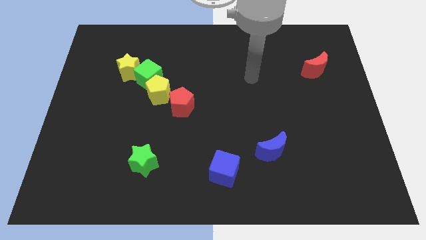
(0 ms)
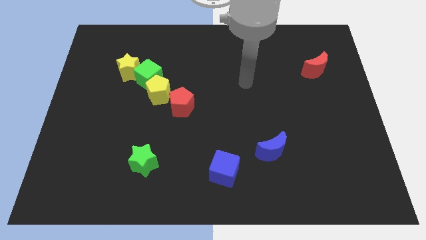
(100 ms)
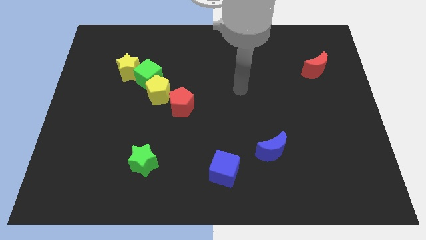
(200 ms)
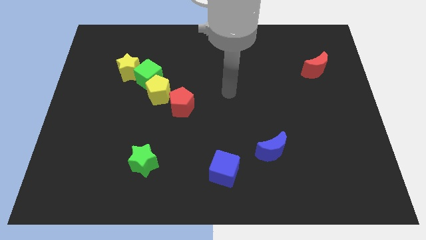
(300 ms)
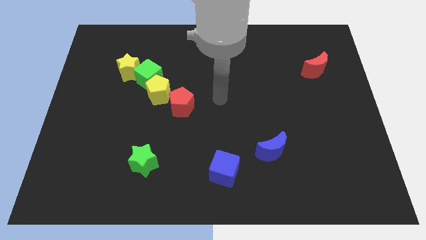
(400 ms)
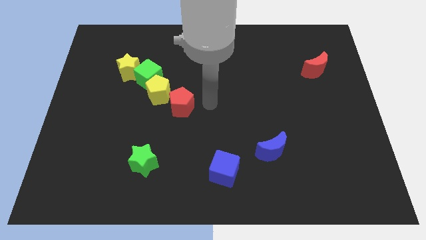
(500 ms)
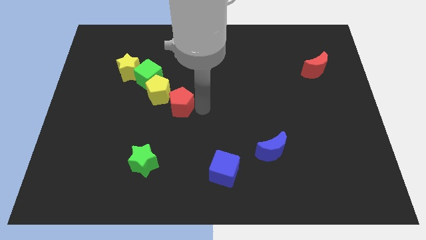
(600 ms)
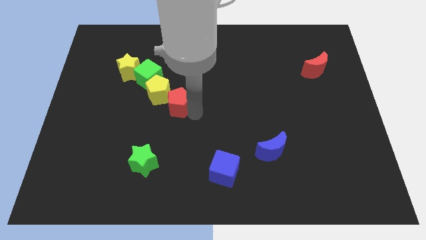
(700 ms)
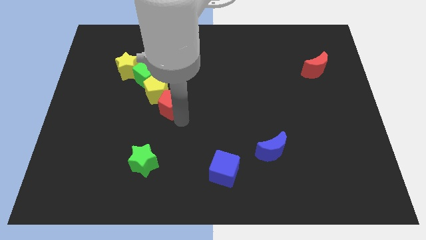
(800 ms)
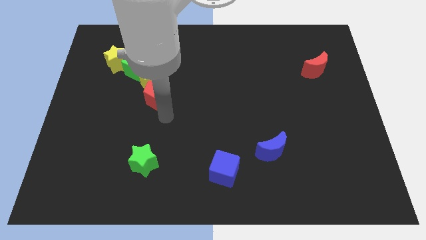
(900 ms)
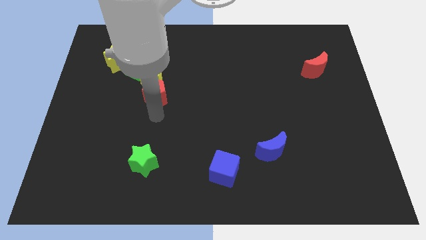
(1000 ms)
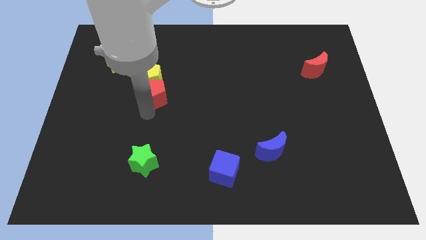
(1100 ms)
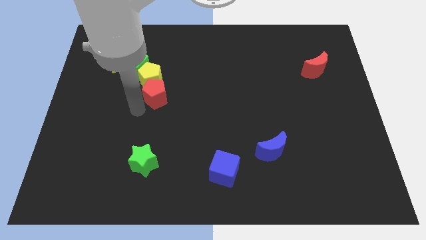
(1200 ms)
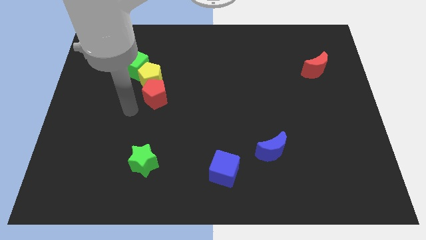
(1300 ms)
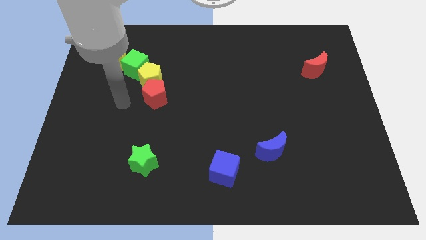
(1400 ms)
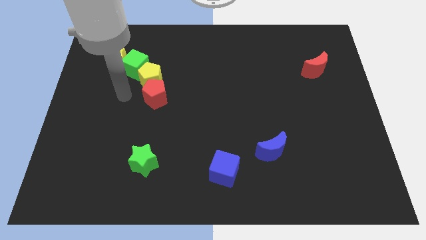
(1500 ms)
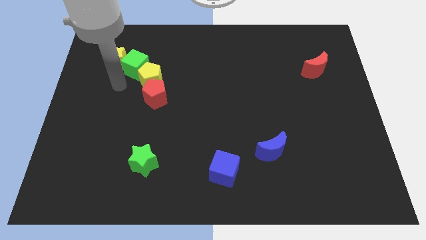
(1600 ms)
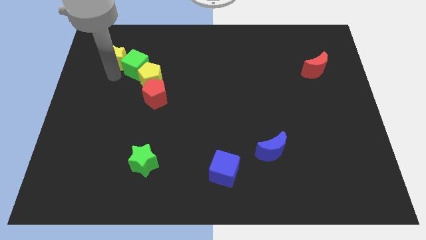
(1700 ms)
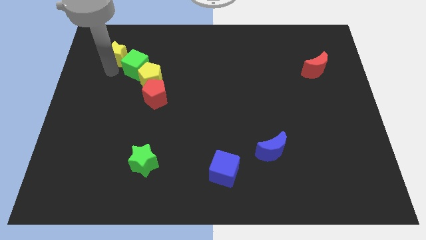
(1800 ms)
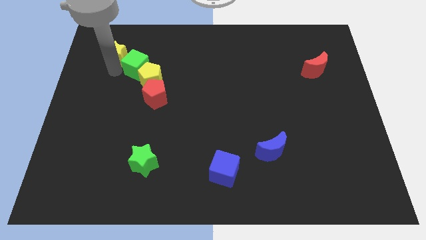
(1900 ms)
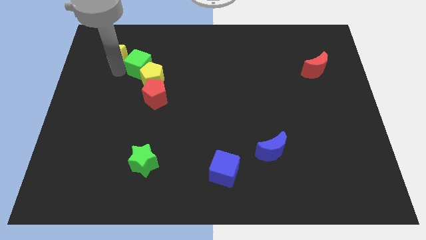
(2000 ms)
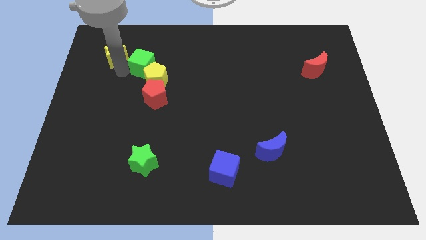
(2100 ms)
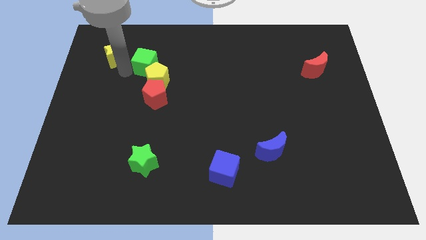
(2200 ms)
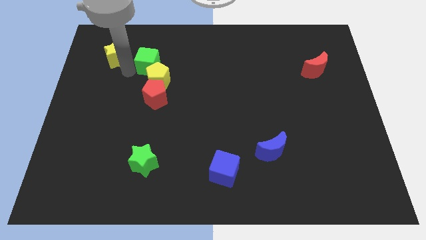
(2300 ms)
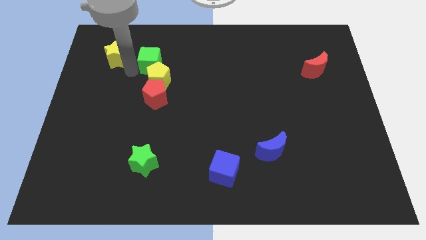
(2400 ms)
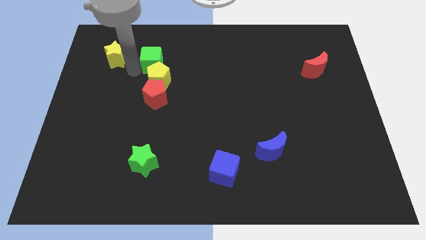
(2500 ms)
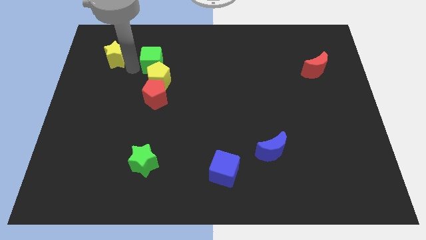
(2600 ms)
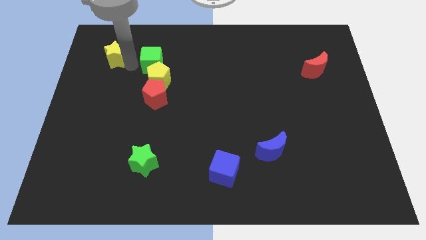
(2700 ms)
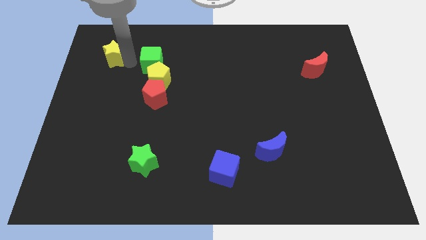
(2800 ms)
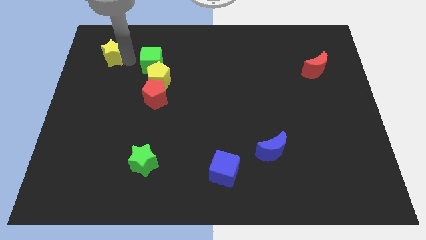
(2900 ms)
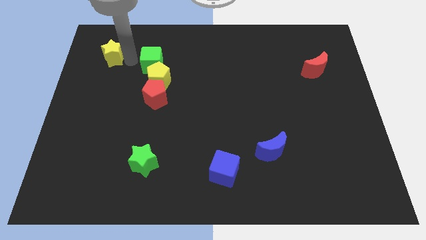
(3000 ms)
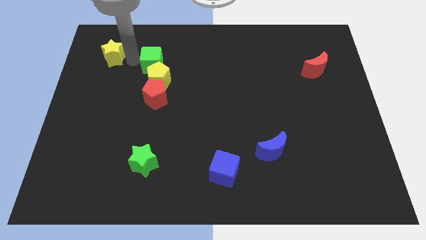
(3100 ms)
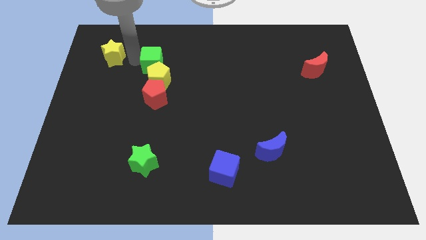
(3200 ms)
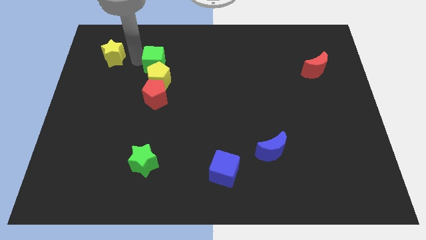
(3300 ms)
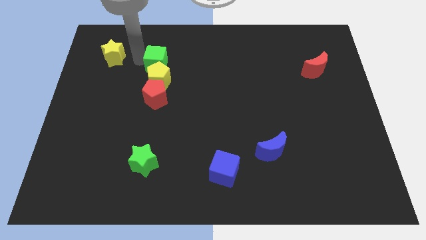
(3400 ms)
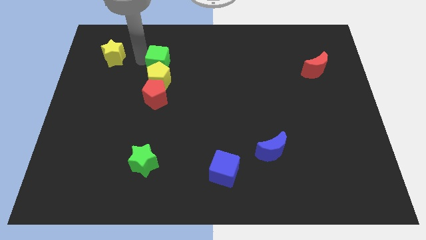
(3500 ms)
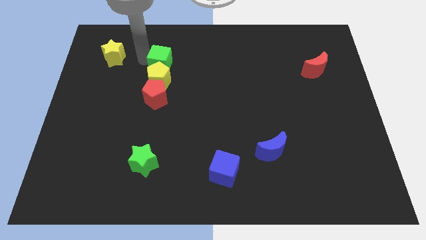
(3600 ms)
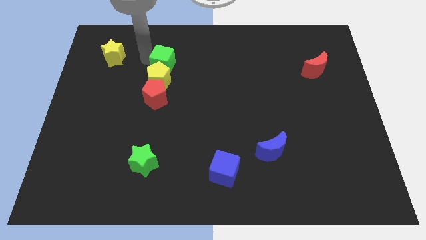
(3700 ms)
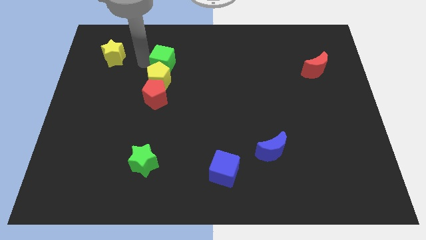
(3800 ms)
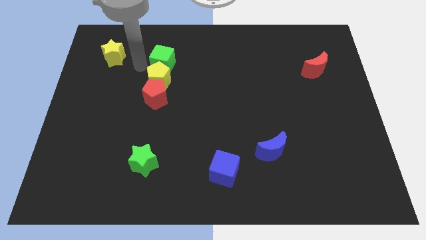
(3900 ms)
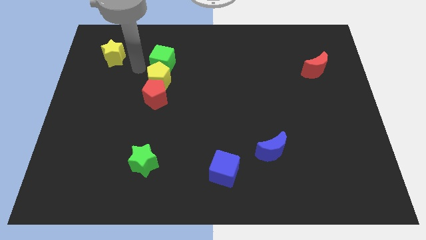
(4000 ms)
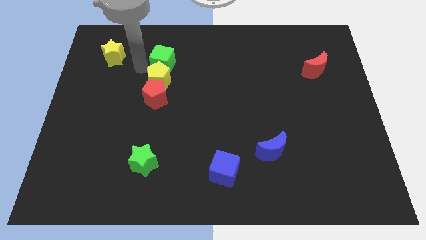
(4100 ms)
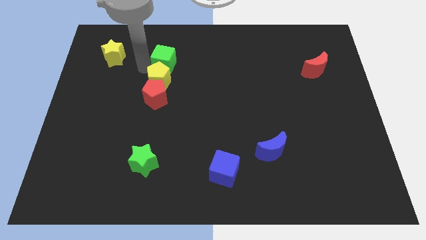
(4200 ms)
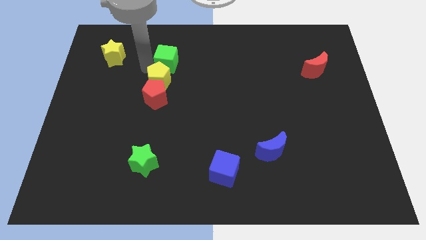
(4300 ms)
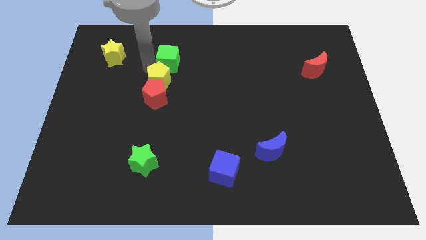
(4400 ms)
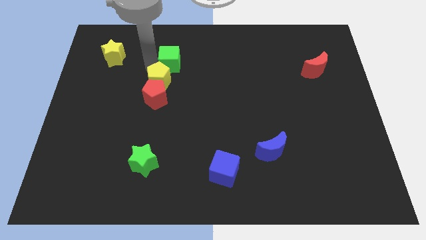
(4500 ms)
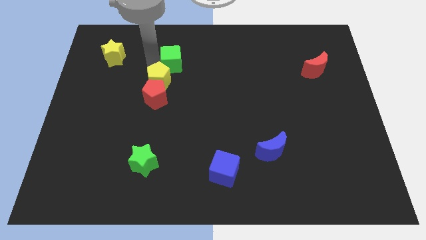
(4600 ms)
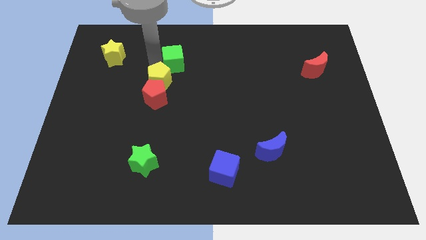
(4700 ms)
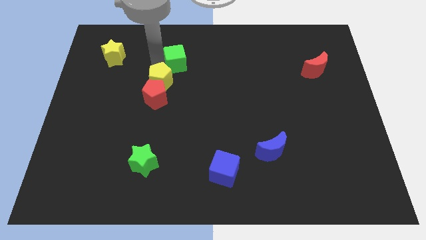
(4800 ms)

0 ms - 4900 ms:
separate the green cube from the yellow pentagon and yellow star

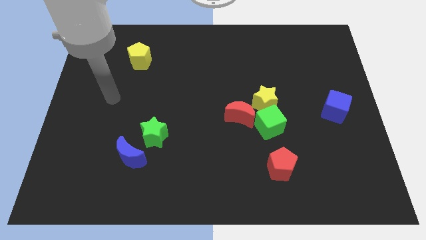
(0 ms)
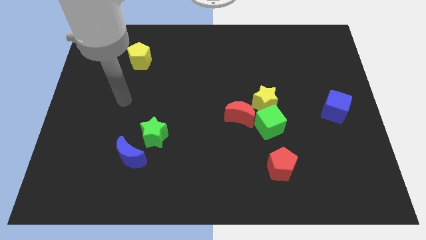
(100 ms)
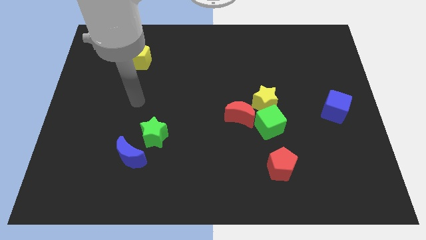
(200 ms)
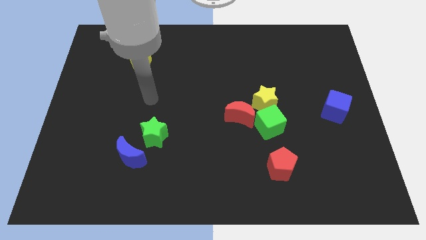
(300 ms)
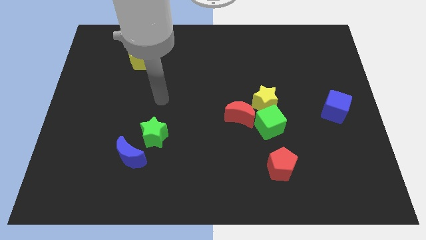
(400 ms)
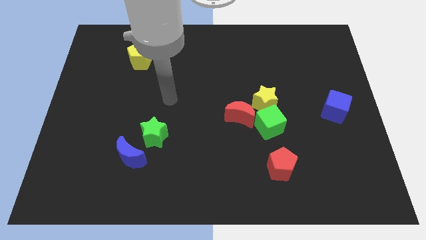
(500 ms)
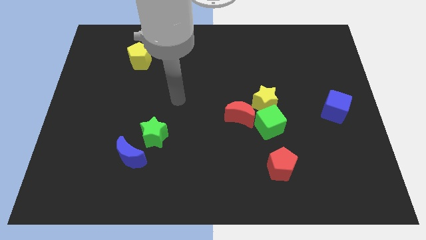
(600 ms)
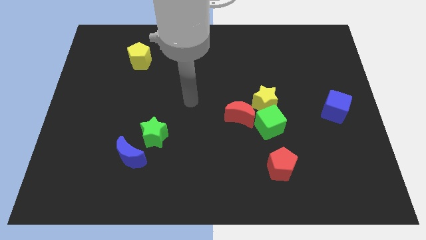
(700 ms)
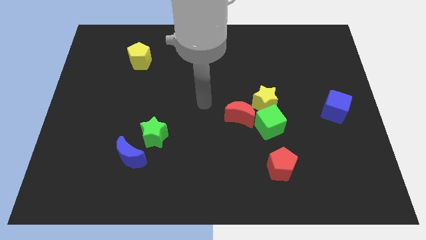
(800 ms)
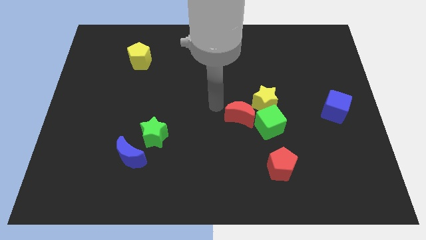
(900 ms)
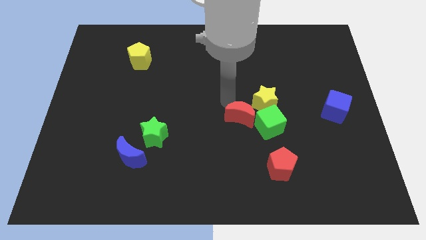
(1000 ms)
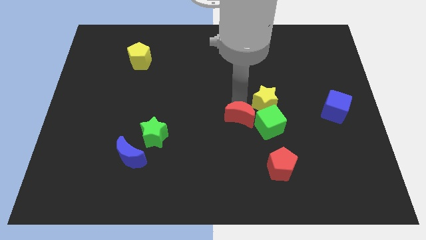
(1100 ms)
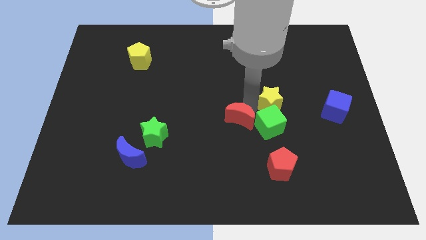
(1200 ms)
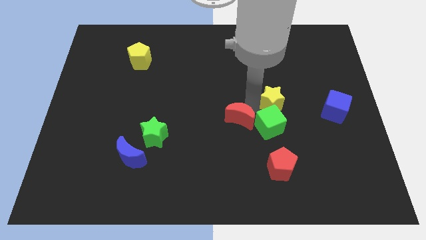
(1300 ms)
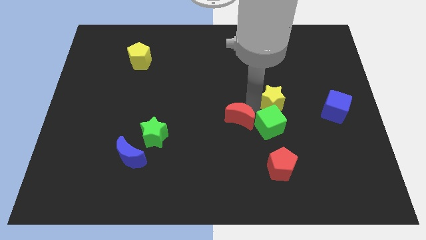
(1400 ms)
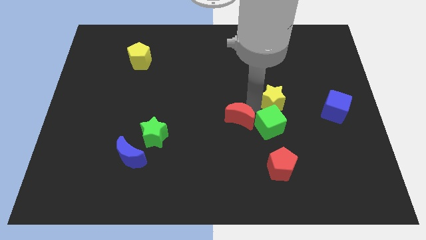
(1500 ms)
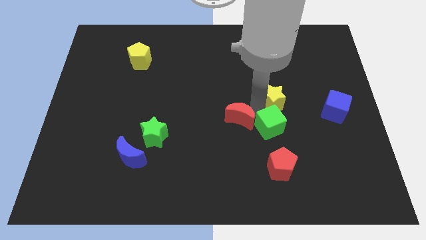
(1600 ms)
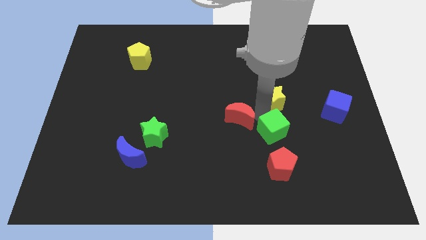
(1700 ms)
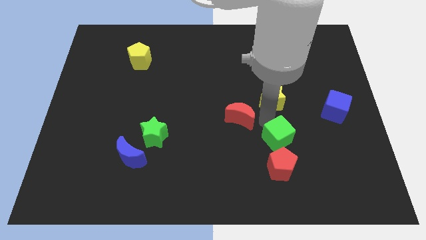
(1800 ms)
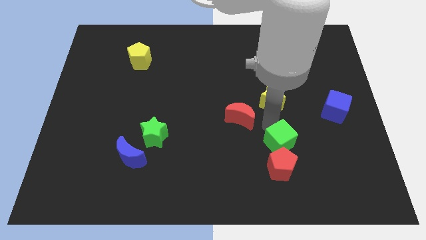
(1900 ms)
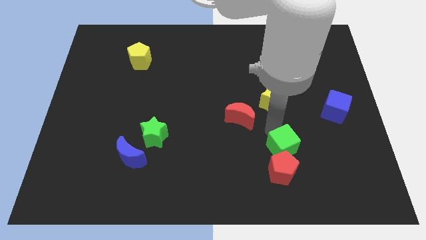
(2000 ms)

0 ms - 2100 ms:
separate the green cube from the yellow star and red moon

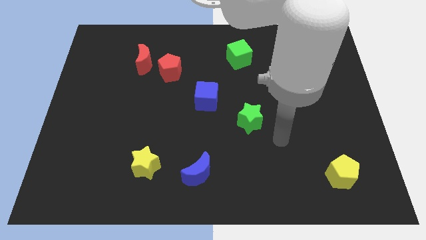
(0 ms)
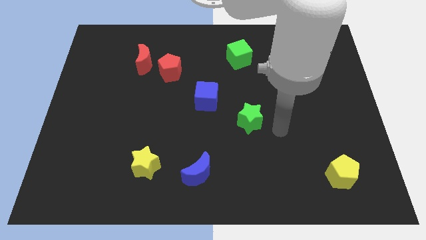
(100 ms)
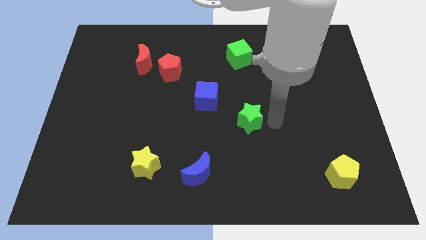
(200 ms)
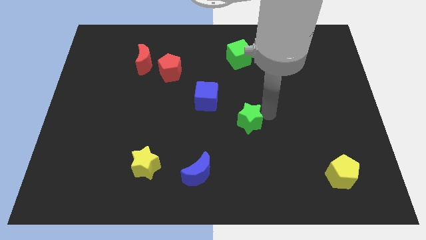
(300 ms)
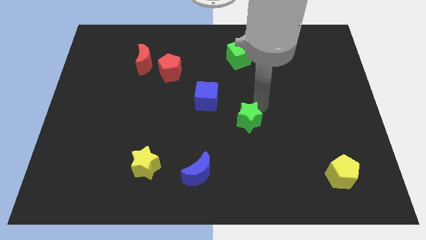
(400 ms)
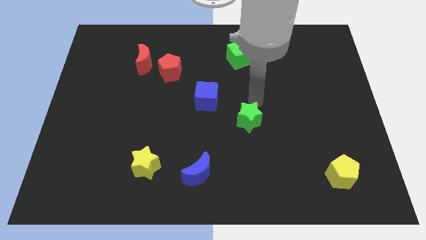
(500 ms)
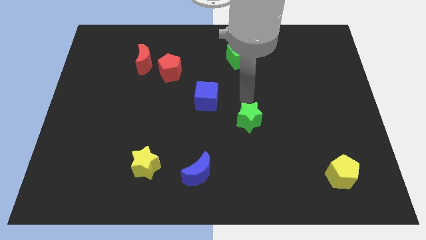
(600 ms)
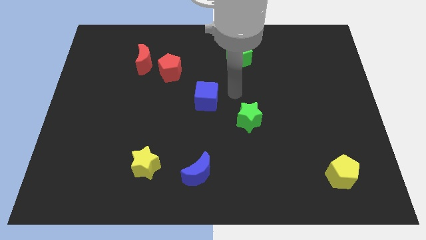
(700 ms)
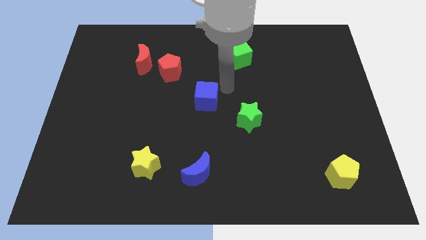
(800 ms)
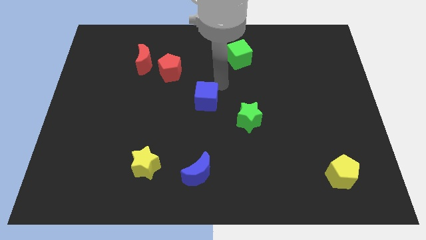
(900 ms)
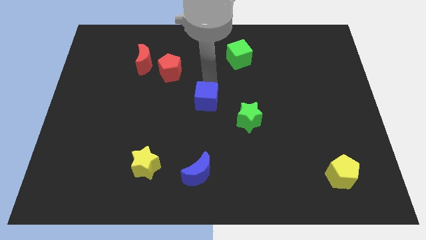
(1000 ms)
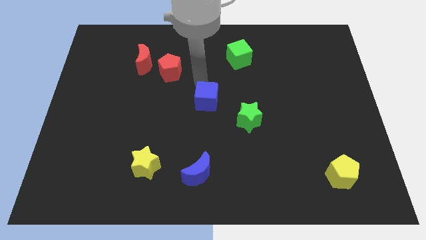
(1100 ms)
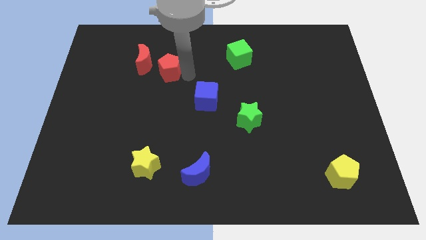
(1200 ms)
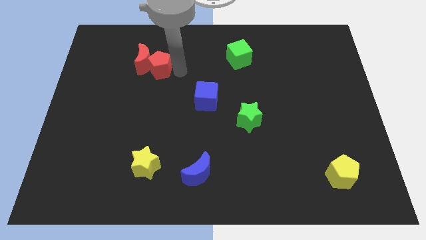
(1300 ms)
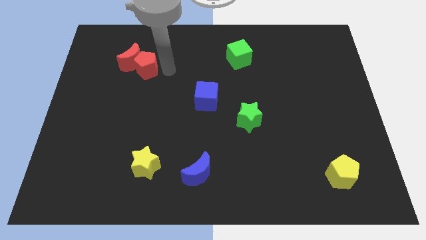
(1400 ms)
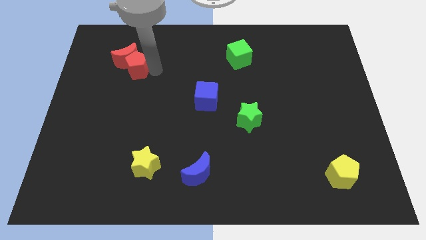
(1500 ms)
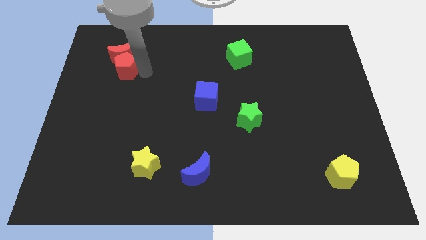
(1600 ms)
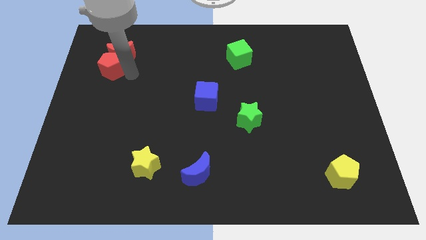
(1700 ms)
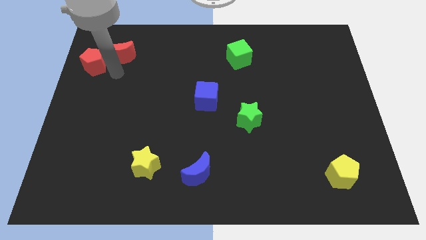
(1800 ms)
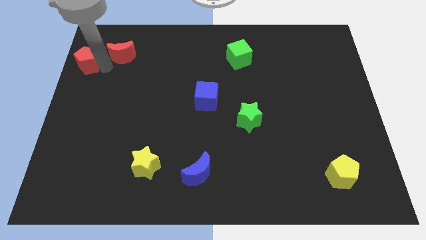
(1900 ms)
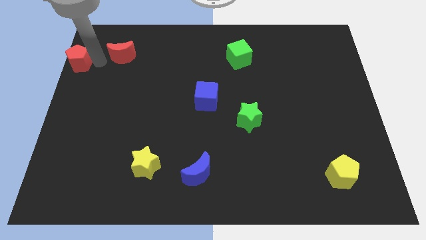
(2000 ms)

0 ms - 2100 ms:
separate the red moon from the red pentagon

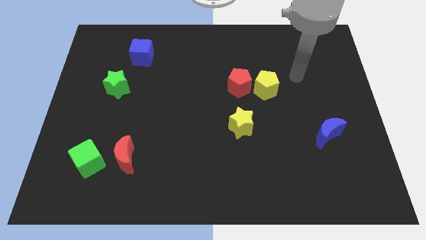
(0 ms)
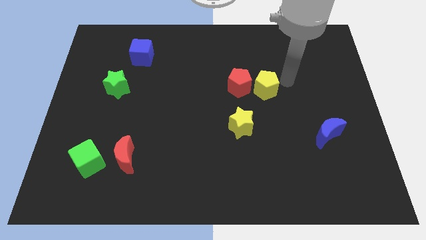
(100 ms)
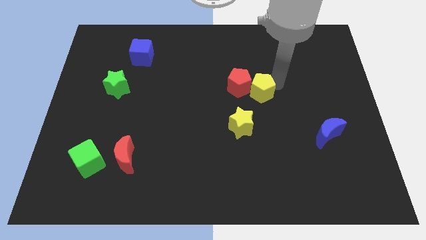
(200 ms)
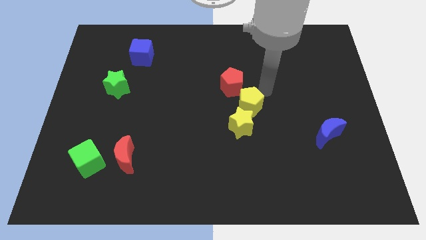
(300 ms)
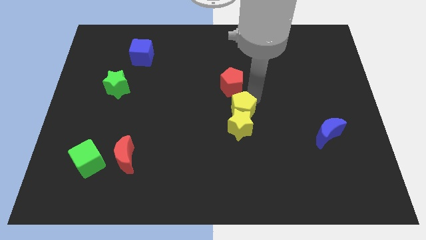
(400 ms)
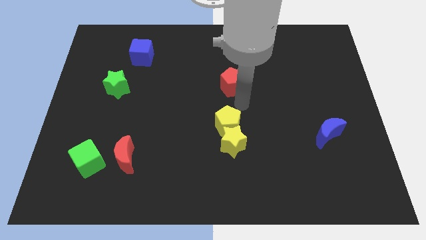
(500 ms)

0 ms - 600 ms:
move the red pentagon away from the yellow pentagon
